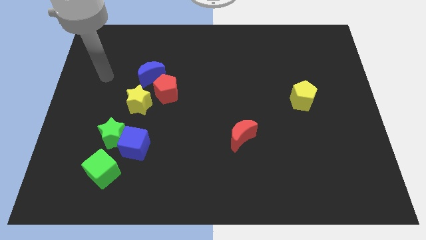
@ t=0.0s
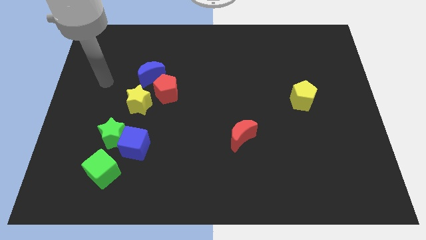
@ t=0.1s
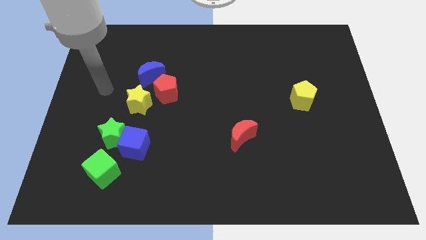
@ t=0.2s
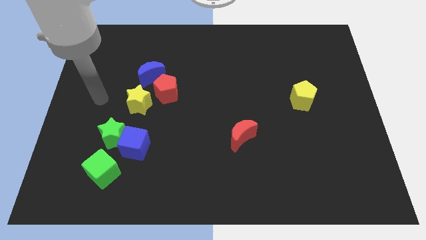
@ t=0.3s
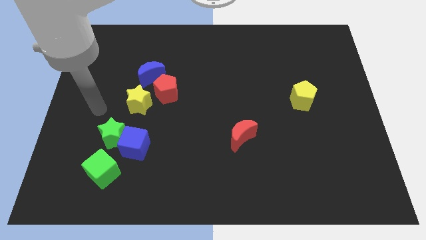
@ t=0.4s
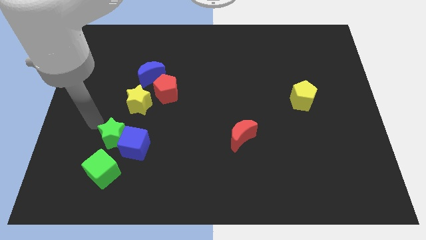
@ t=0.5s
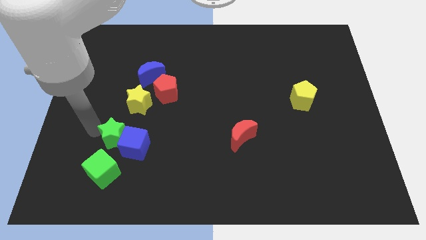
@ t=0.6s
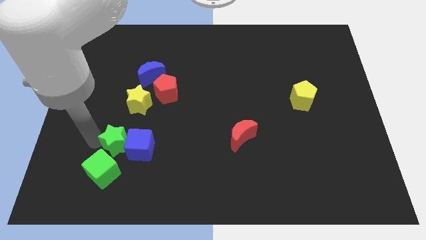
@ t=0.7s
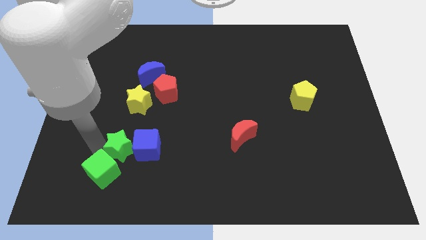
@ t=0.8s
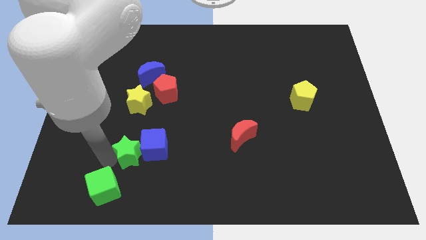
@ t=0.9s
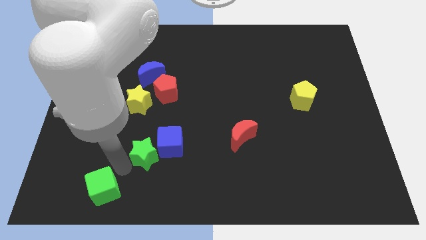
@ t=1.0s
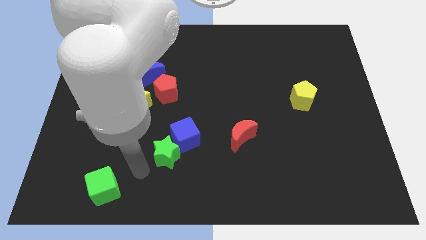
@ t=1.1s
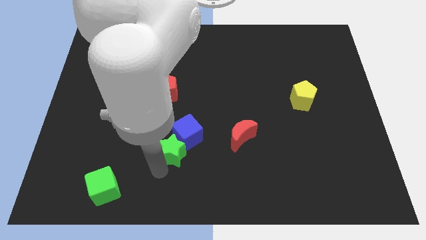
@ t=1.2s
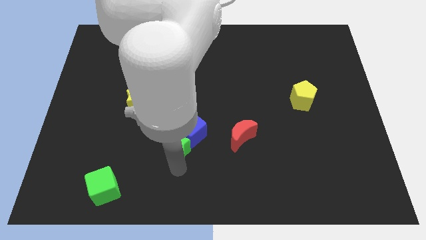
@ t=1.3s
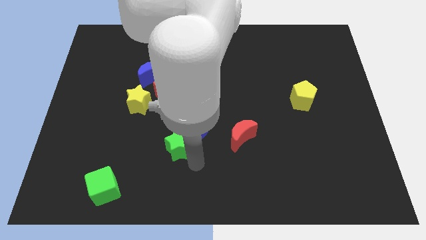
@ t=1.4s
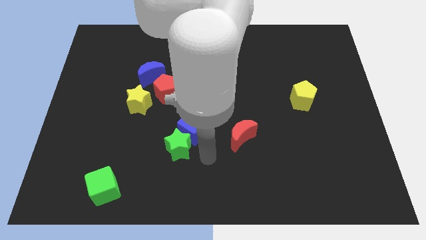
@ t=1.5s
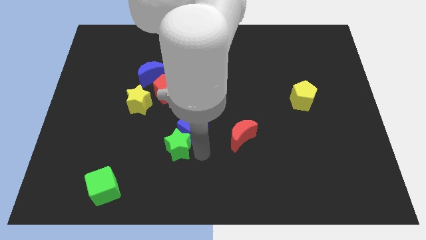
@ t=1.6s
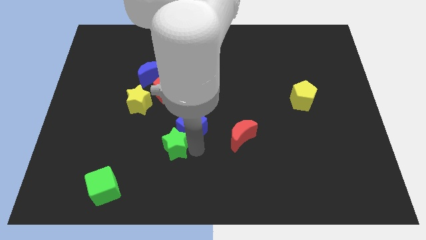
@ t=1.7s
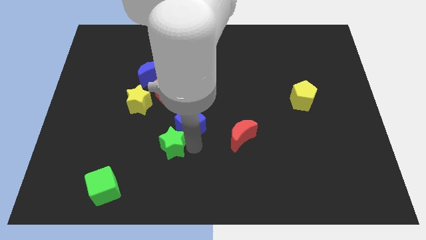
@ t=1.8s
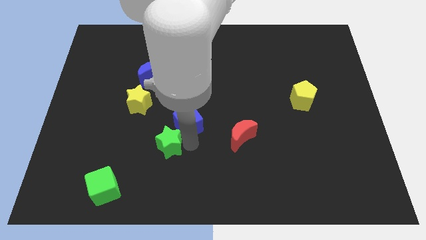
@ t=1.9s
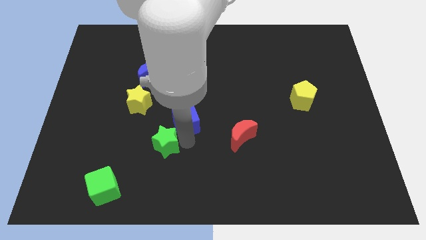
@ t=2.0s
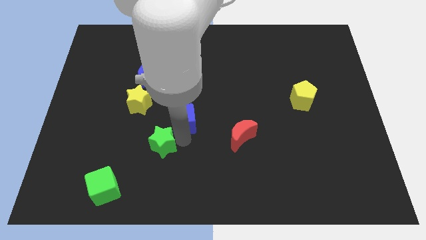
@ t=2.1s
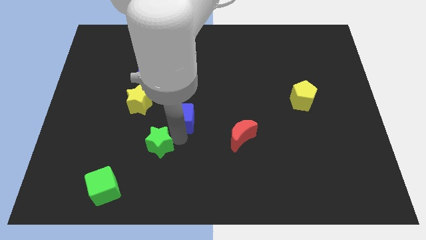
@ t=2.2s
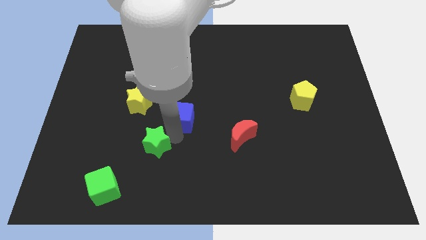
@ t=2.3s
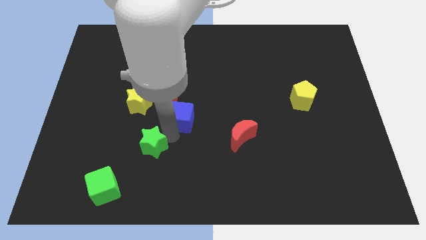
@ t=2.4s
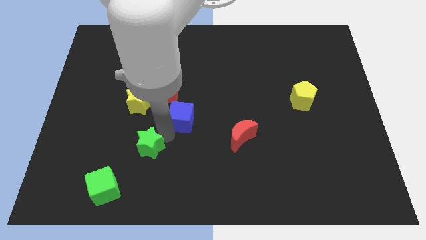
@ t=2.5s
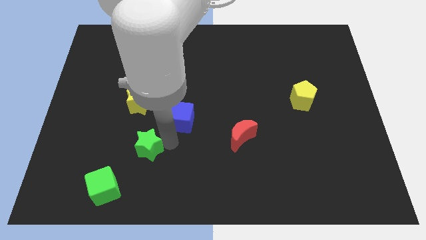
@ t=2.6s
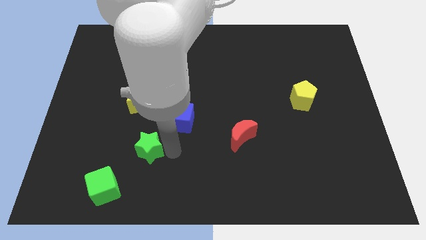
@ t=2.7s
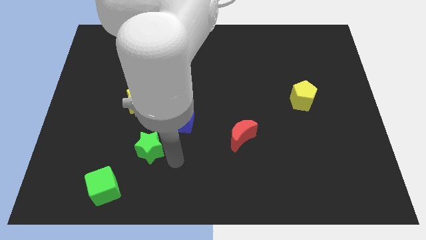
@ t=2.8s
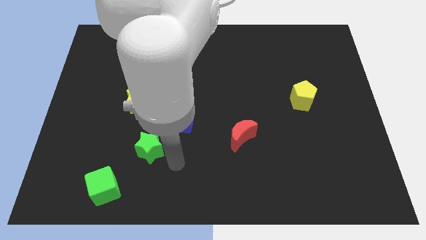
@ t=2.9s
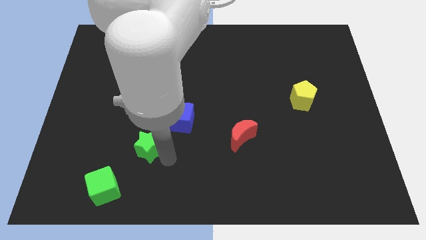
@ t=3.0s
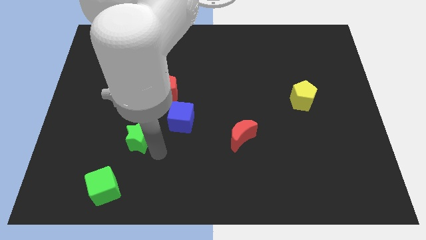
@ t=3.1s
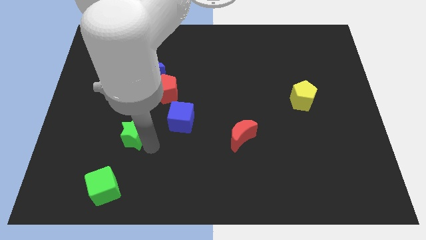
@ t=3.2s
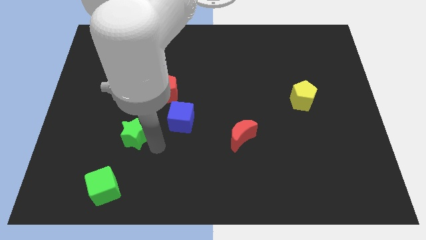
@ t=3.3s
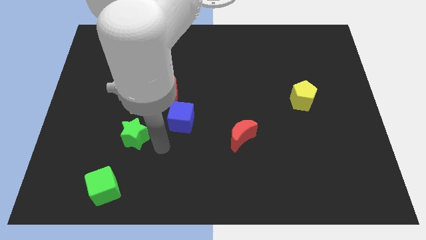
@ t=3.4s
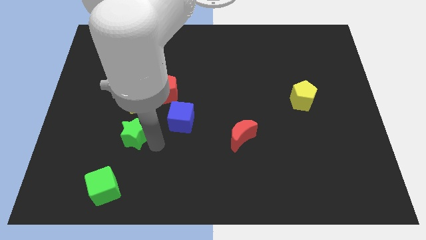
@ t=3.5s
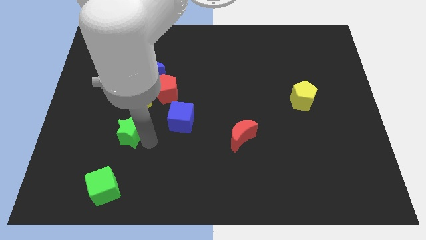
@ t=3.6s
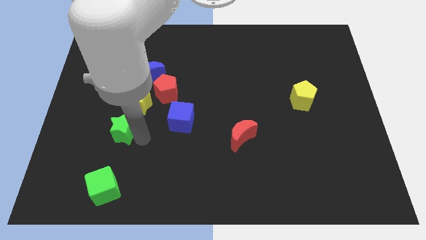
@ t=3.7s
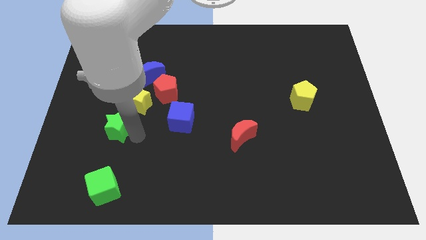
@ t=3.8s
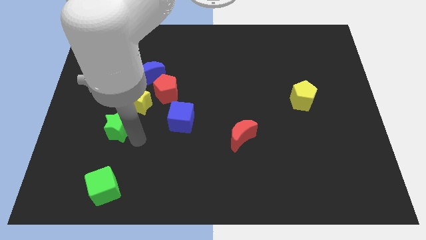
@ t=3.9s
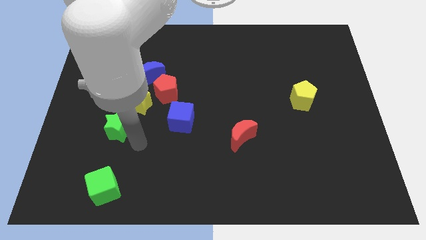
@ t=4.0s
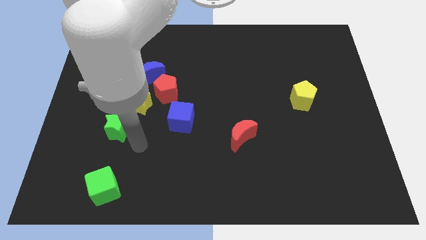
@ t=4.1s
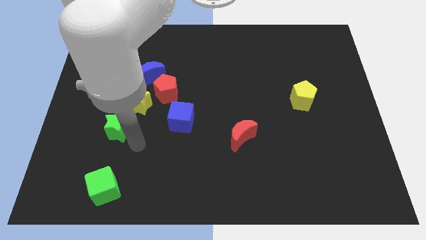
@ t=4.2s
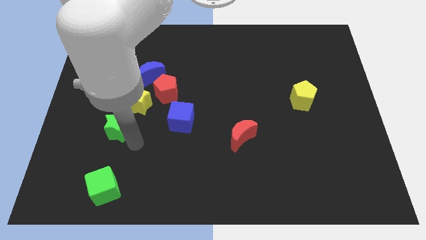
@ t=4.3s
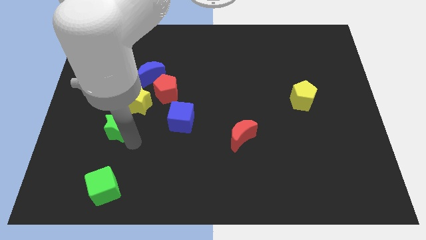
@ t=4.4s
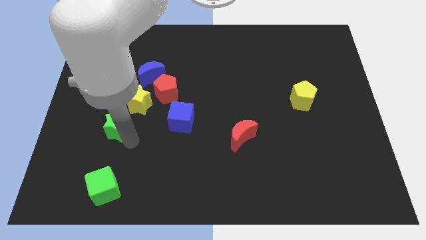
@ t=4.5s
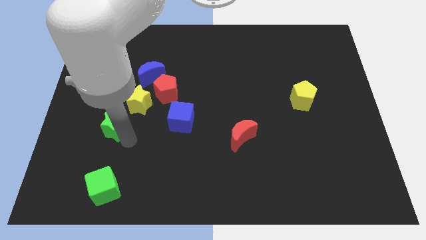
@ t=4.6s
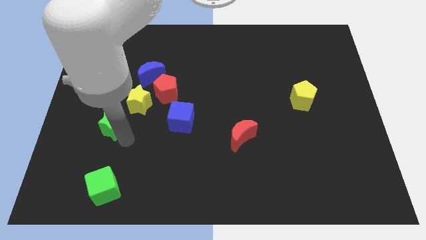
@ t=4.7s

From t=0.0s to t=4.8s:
pull the green star apart from the blue cube and green cube

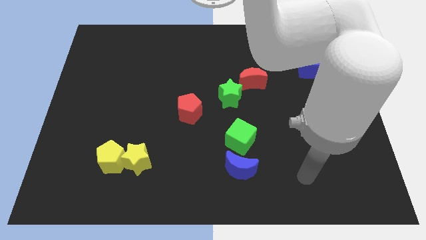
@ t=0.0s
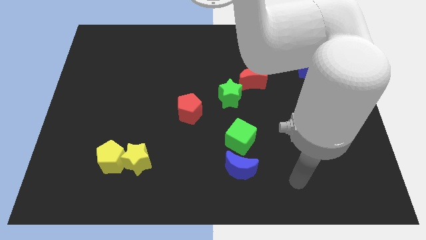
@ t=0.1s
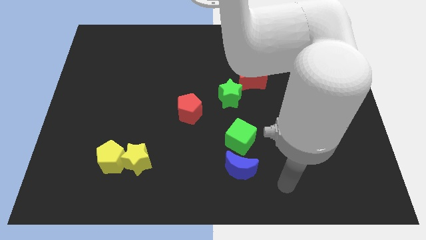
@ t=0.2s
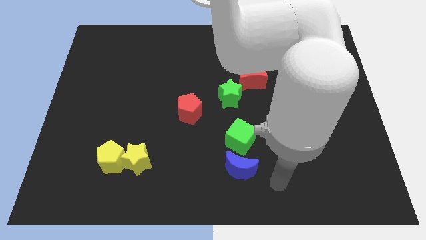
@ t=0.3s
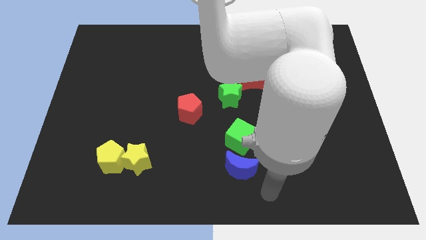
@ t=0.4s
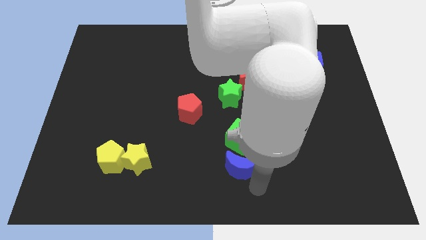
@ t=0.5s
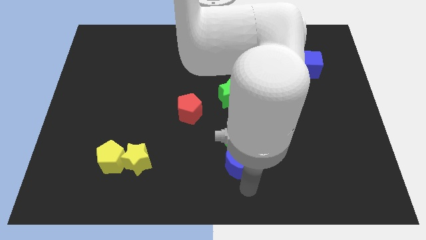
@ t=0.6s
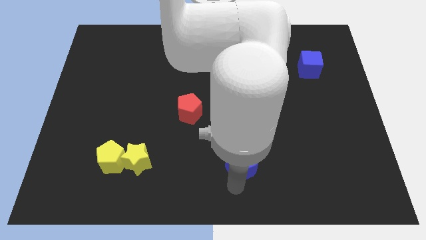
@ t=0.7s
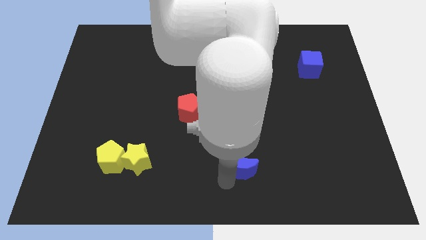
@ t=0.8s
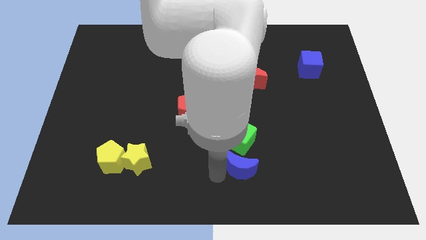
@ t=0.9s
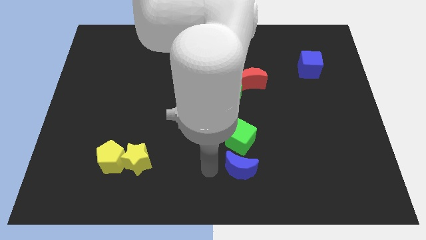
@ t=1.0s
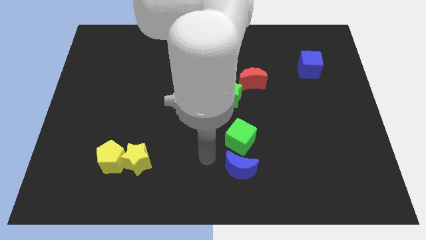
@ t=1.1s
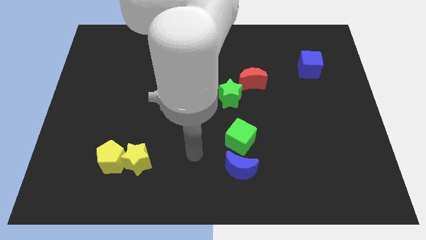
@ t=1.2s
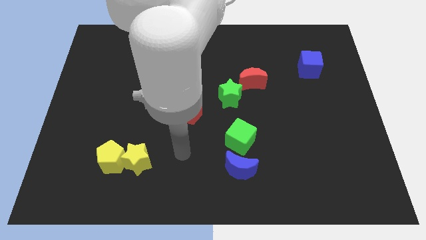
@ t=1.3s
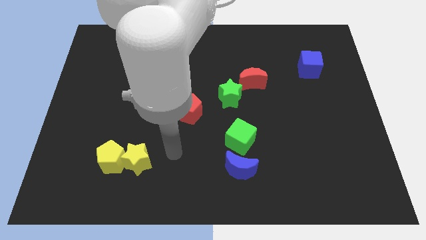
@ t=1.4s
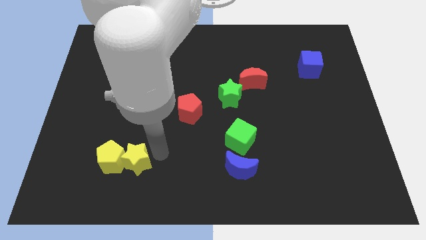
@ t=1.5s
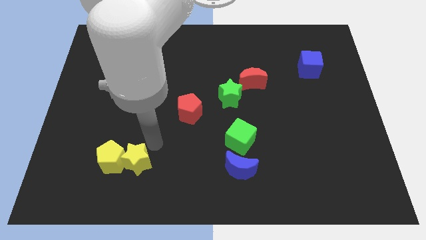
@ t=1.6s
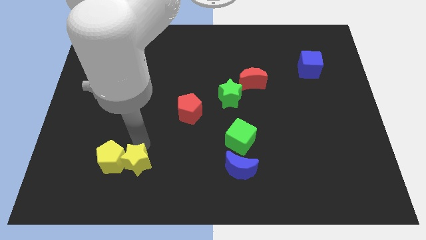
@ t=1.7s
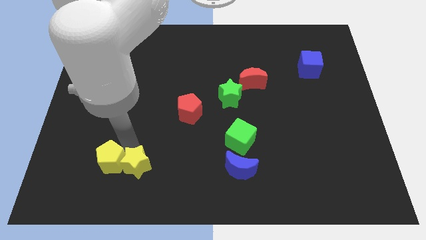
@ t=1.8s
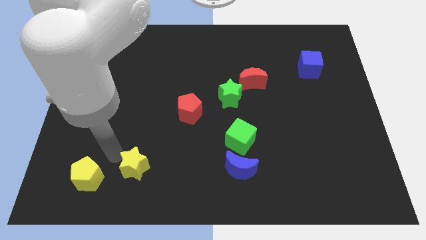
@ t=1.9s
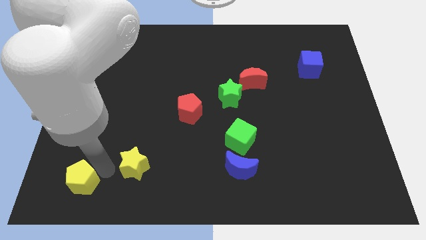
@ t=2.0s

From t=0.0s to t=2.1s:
pull the yellow star apart from the yellow pentagon

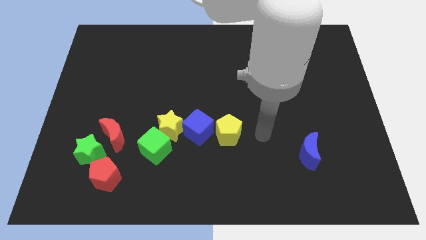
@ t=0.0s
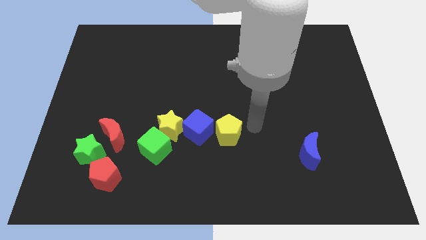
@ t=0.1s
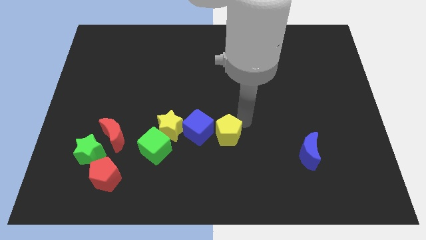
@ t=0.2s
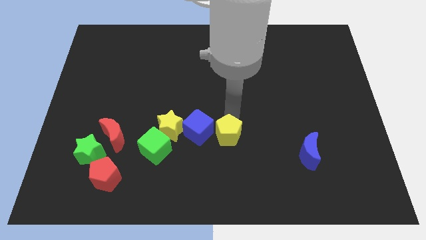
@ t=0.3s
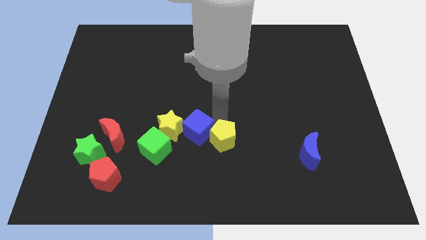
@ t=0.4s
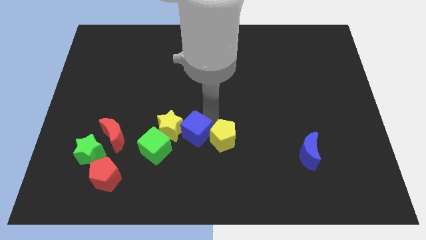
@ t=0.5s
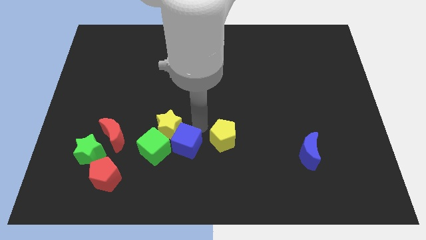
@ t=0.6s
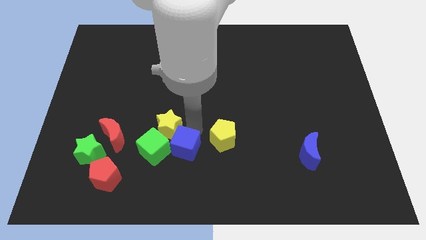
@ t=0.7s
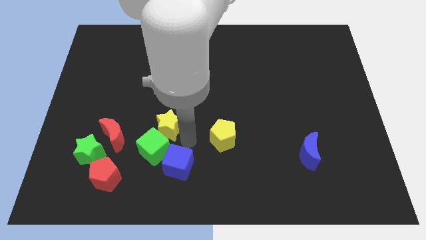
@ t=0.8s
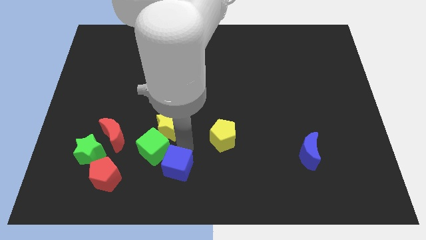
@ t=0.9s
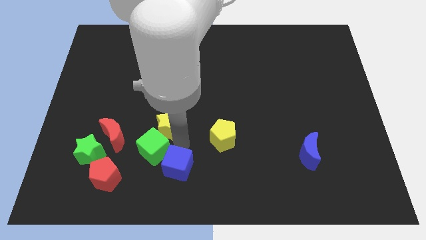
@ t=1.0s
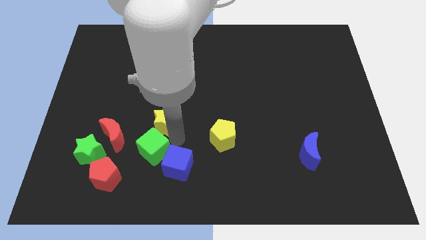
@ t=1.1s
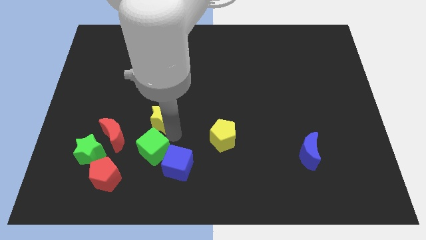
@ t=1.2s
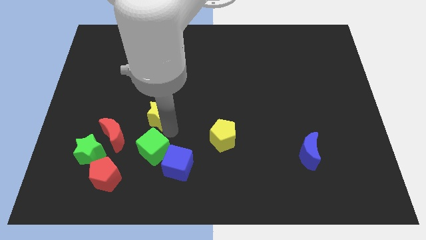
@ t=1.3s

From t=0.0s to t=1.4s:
pull the yellow star apart from the green cube and blue cube

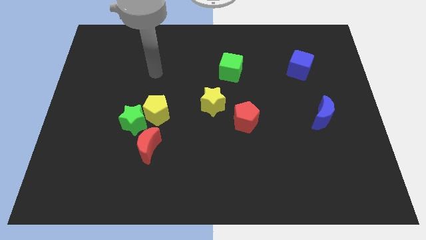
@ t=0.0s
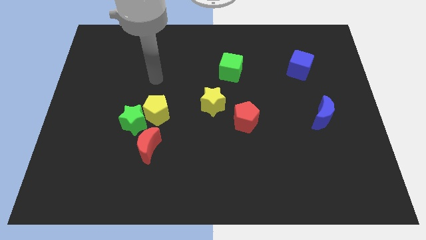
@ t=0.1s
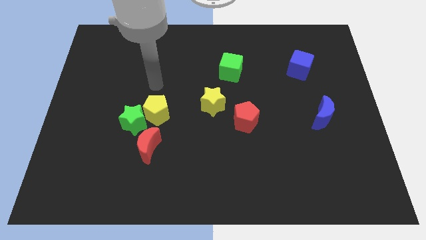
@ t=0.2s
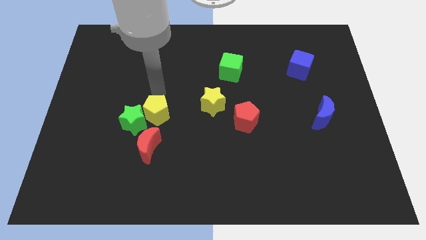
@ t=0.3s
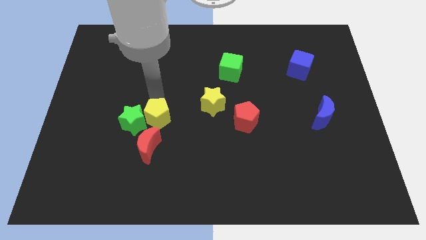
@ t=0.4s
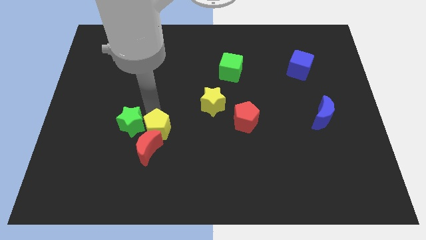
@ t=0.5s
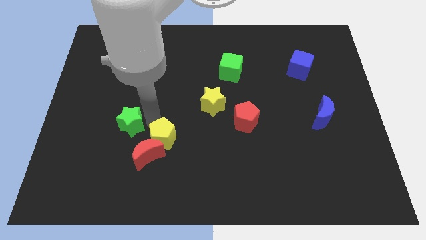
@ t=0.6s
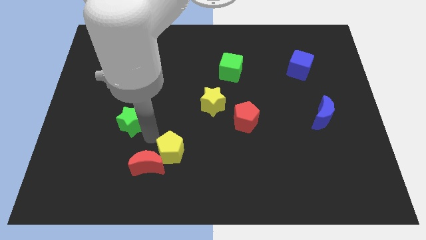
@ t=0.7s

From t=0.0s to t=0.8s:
separate the green star from the yellow pentagon and red moon

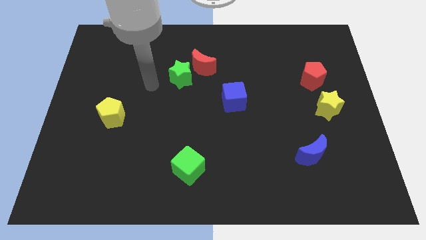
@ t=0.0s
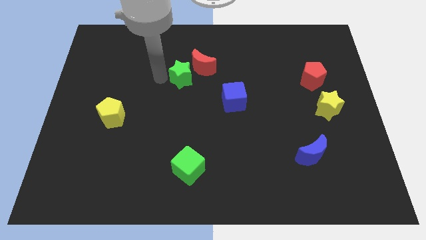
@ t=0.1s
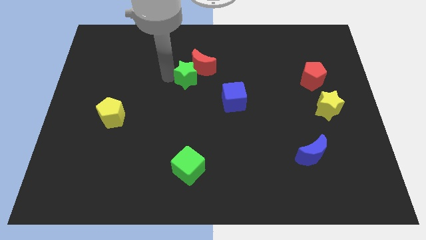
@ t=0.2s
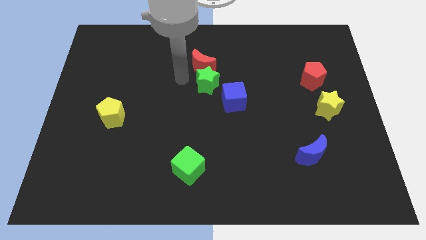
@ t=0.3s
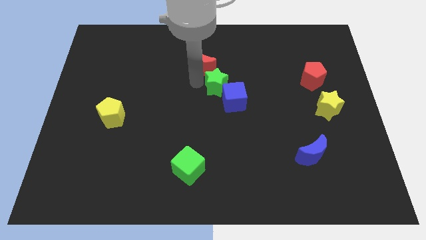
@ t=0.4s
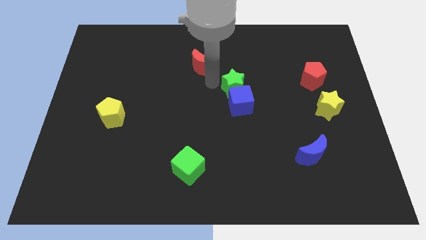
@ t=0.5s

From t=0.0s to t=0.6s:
separate the red moon from the green star
